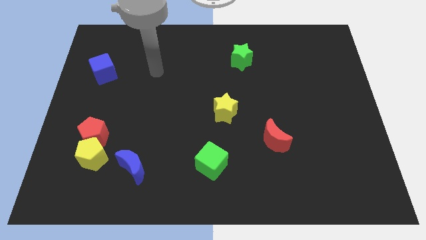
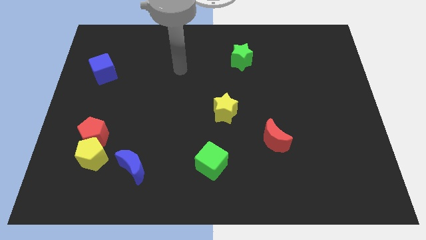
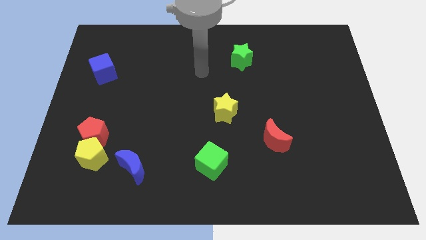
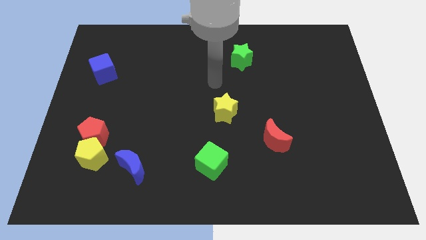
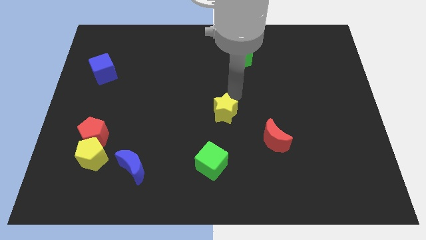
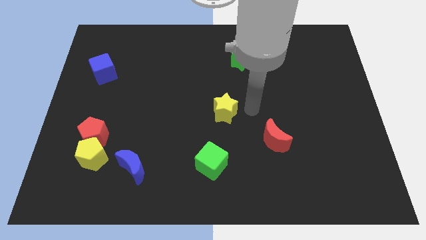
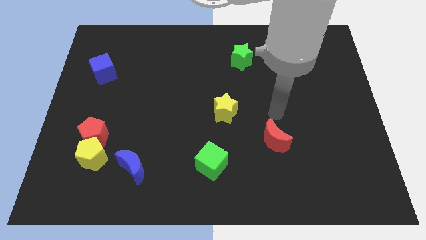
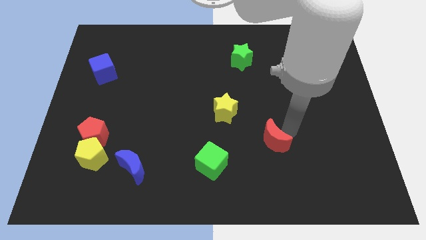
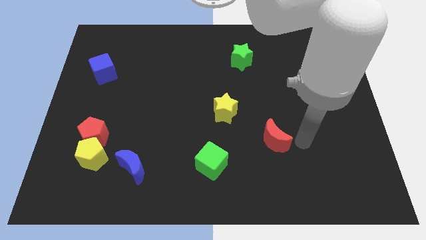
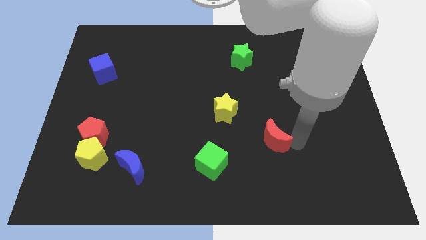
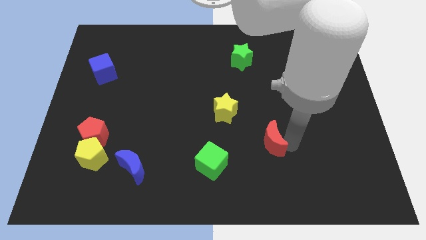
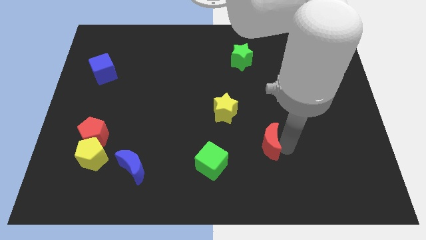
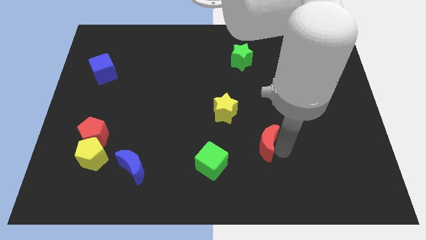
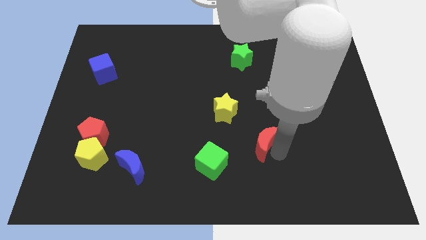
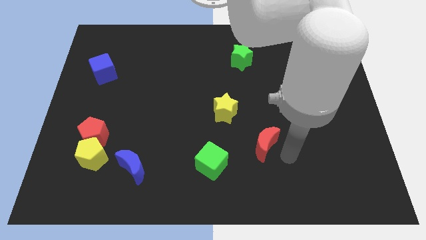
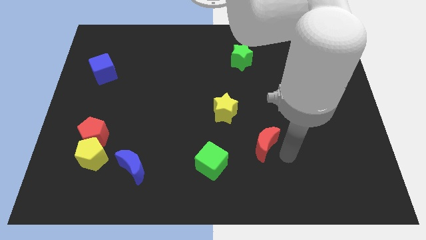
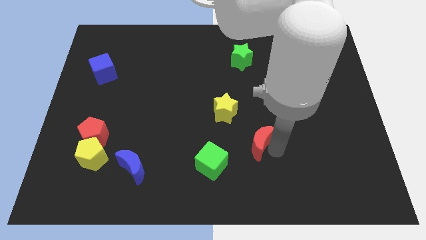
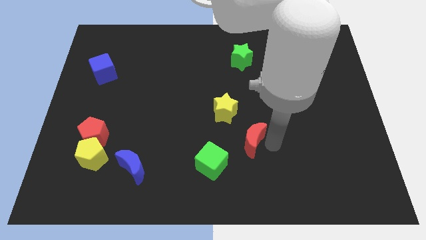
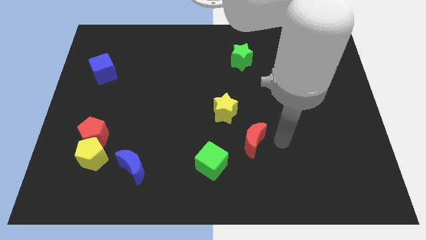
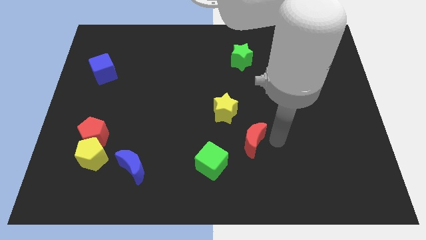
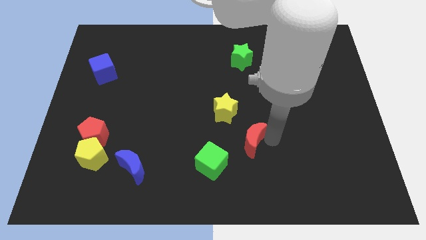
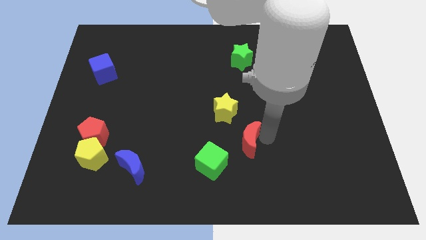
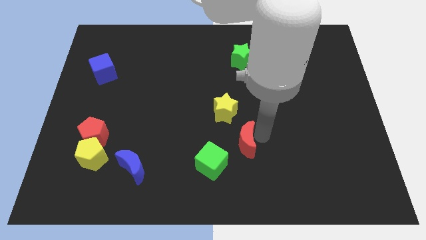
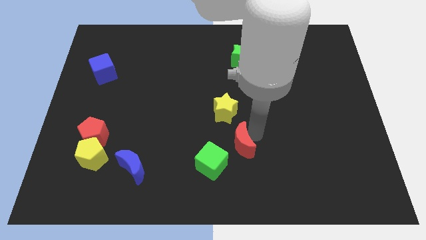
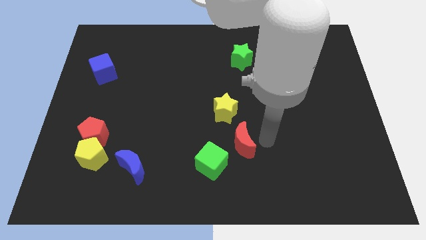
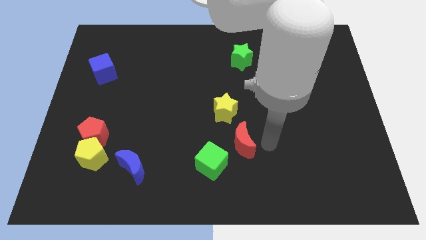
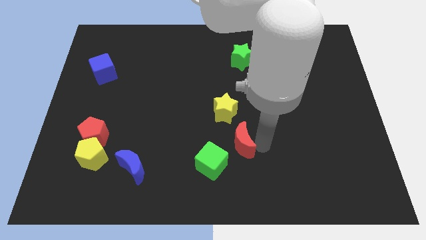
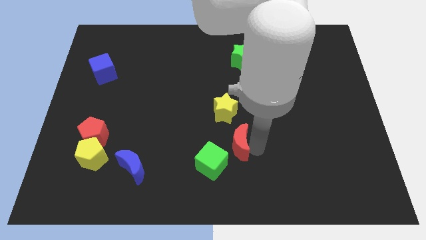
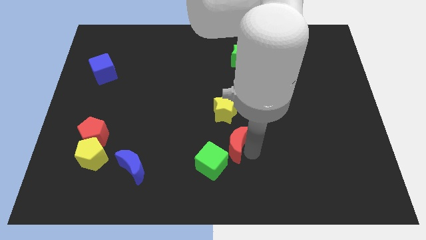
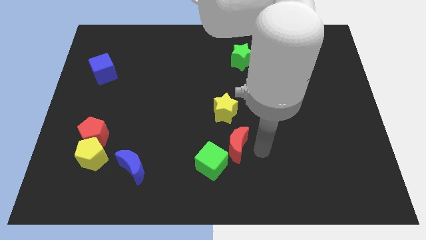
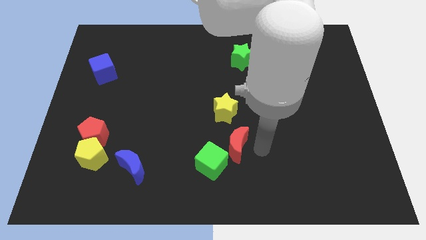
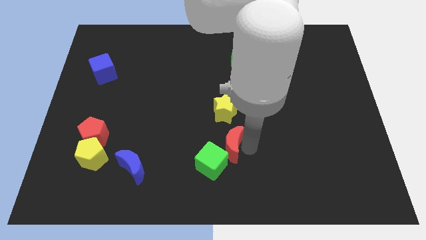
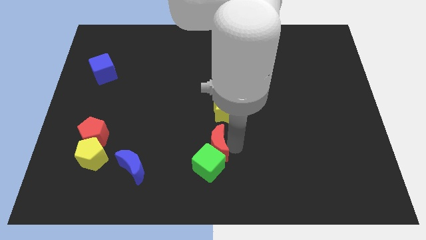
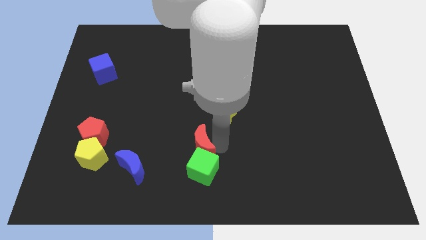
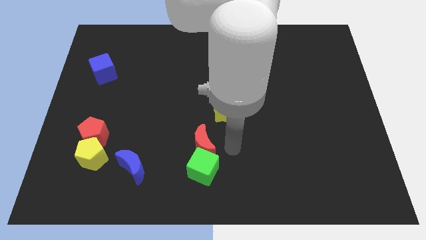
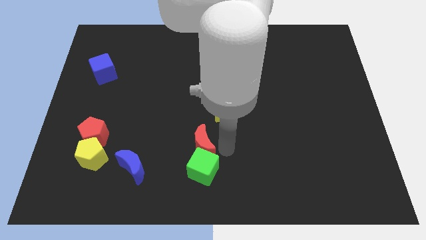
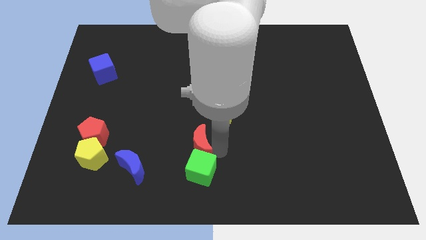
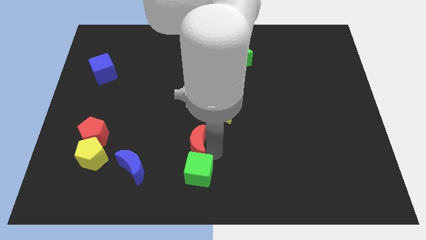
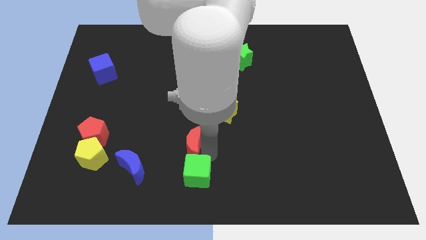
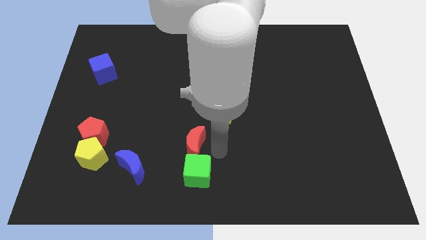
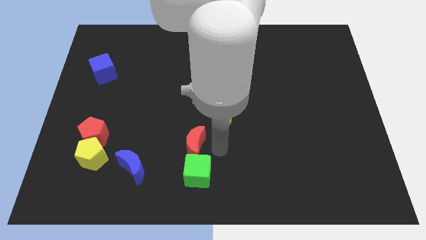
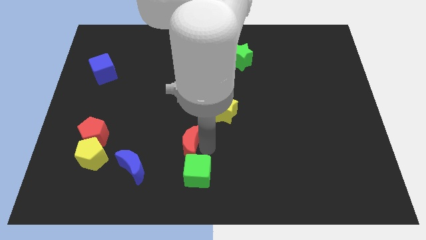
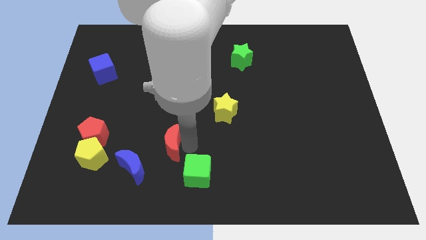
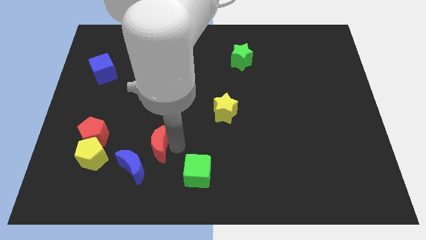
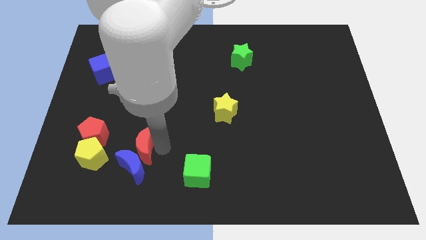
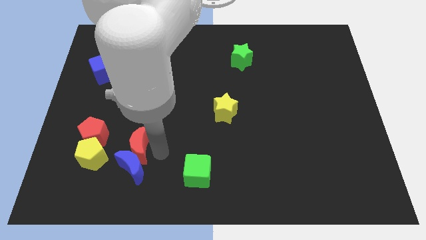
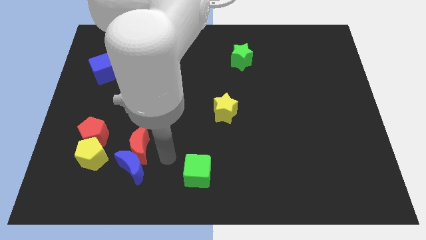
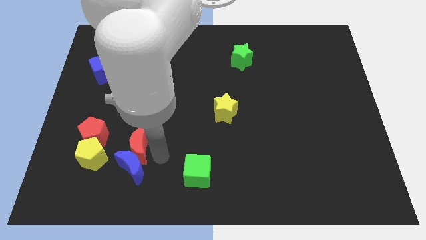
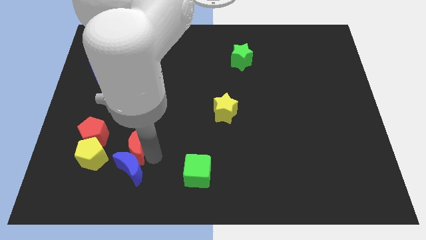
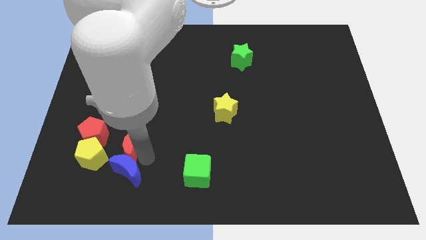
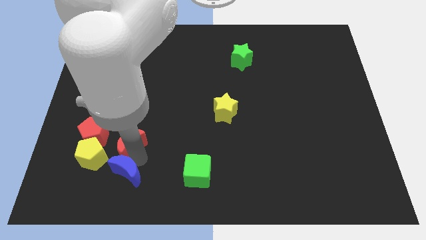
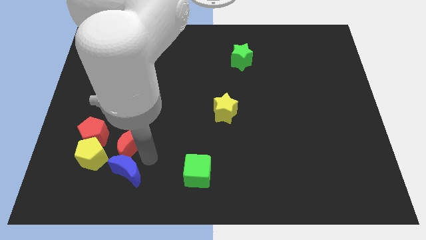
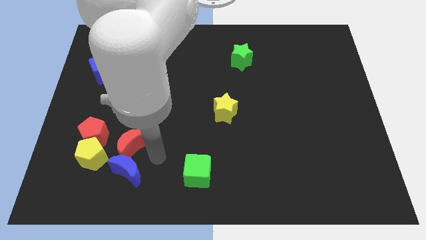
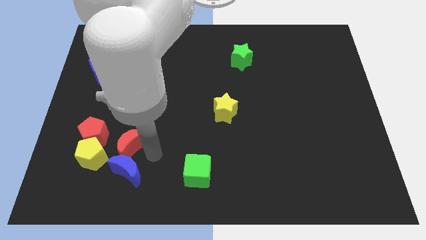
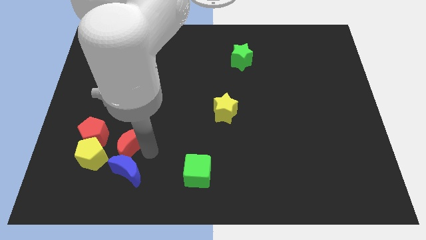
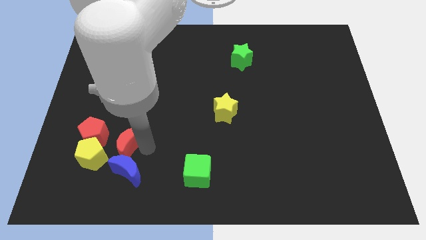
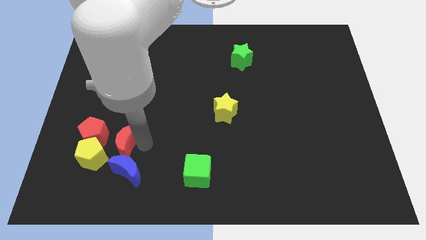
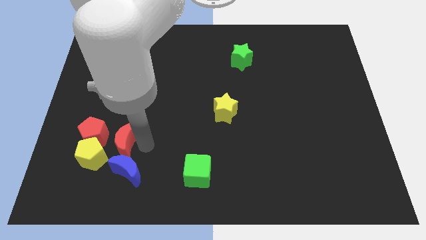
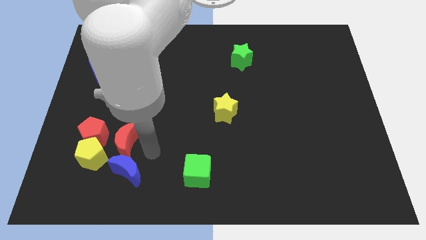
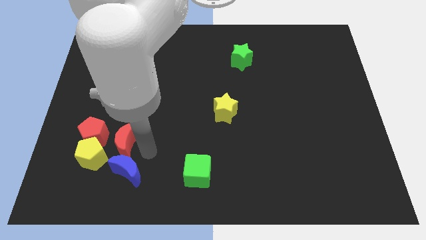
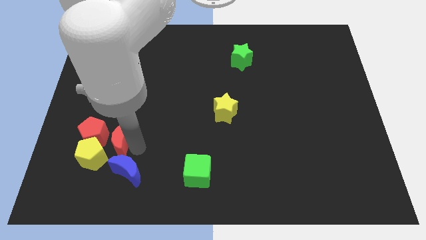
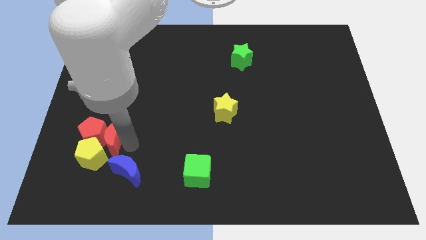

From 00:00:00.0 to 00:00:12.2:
push the red moon towards the red pentagon
